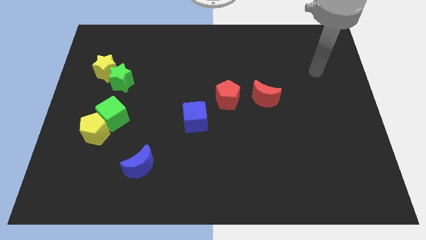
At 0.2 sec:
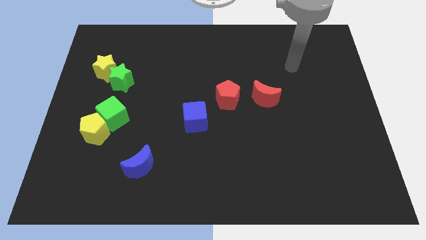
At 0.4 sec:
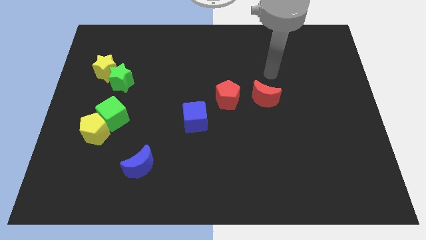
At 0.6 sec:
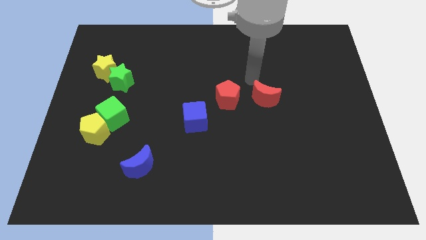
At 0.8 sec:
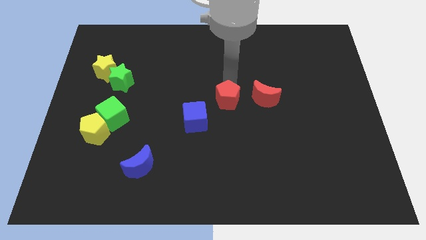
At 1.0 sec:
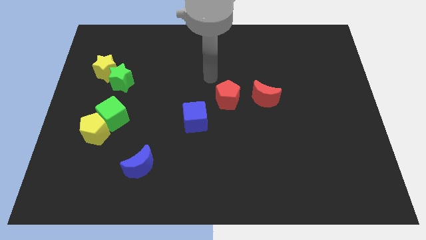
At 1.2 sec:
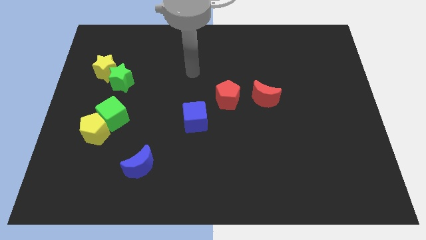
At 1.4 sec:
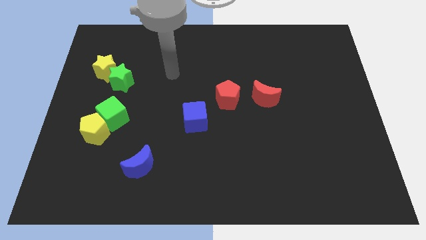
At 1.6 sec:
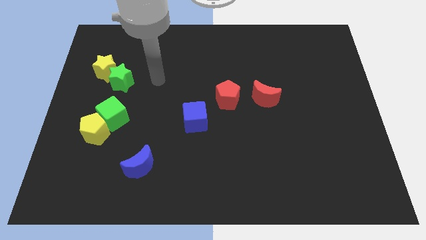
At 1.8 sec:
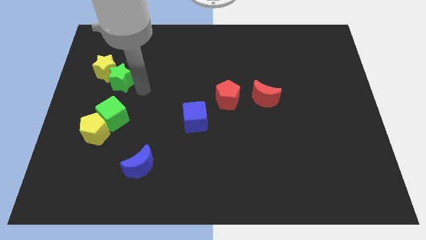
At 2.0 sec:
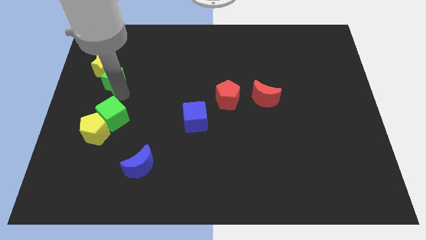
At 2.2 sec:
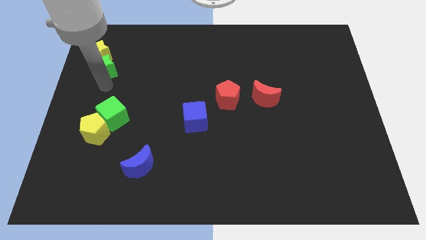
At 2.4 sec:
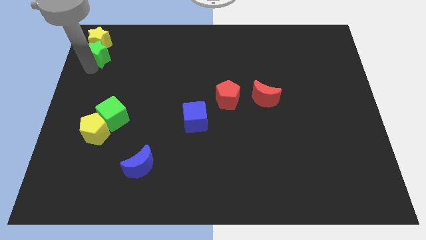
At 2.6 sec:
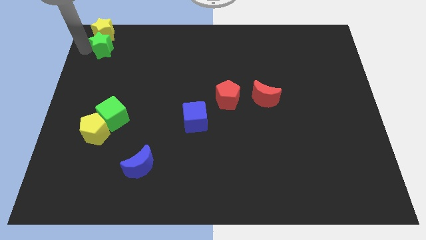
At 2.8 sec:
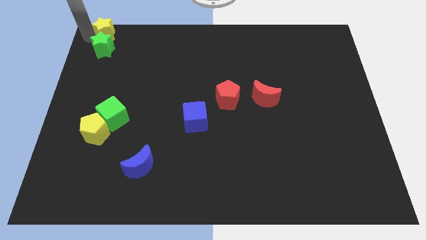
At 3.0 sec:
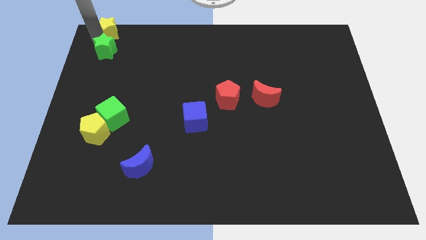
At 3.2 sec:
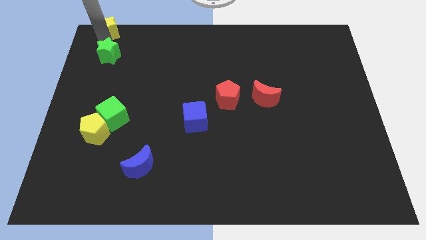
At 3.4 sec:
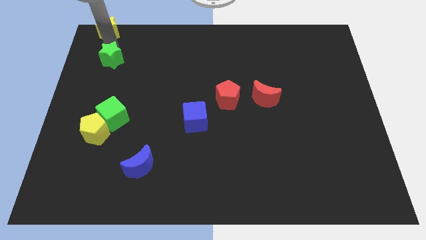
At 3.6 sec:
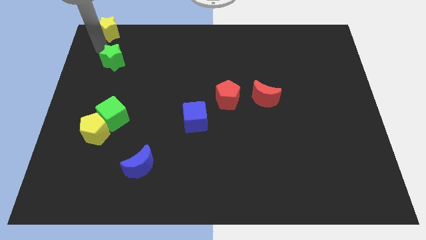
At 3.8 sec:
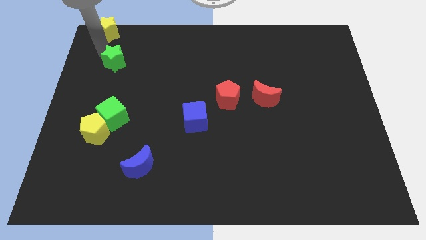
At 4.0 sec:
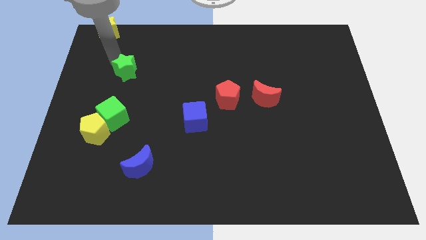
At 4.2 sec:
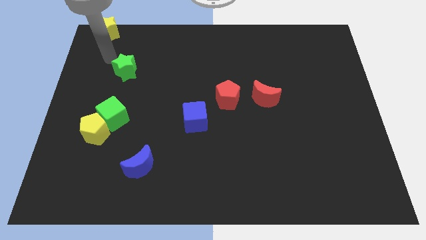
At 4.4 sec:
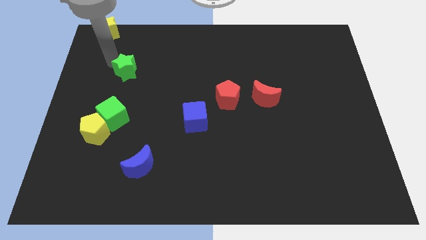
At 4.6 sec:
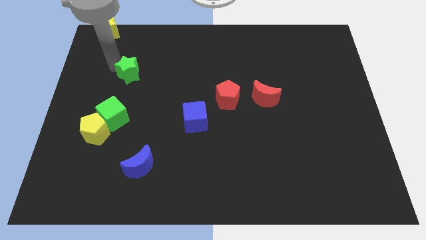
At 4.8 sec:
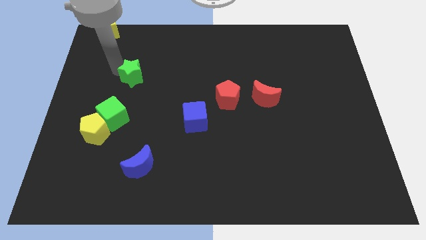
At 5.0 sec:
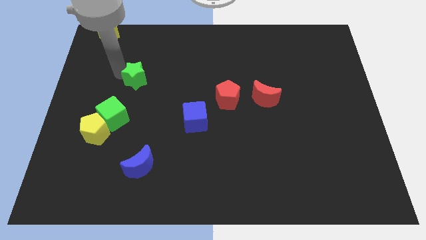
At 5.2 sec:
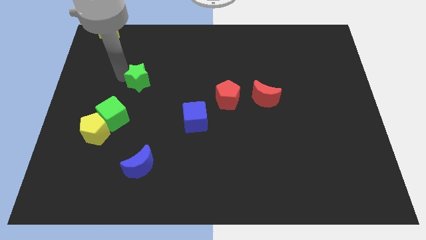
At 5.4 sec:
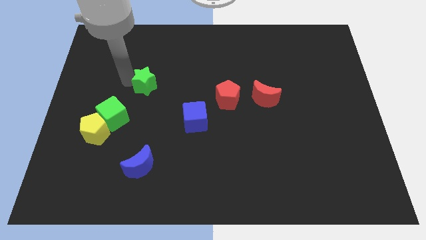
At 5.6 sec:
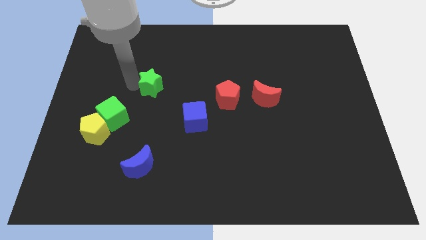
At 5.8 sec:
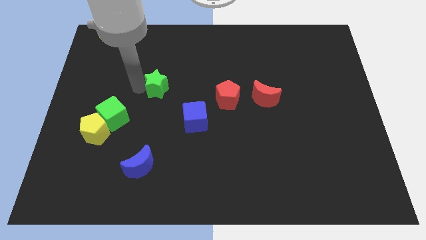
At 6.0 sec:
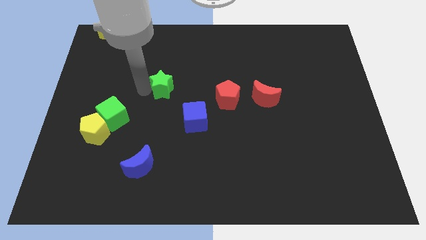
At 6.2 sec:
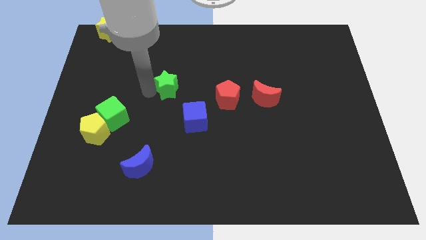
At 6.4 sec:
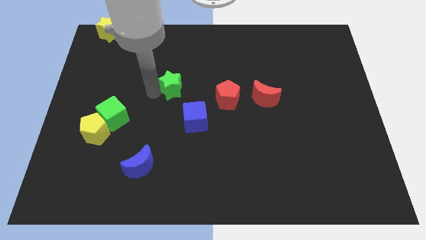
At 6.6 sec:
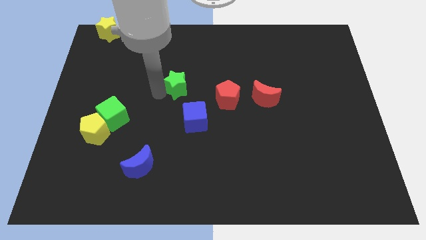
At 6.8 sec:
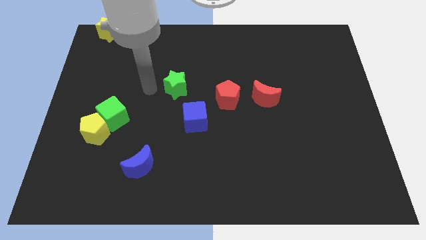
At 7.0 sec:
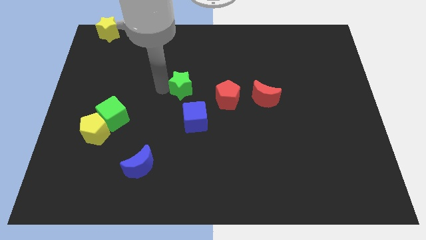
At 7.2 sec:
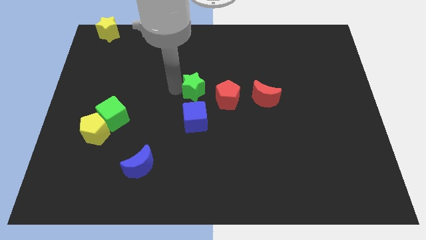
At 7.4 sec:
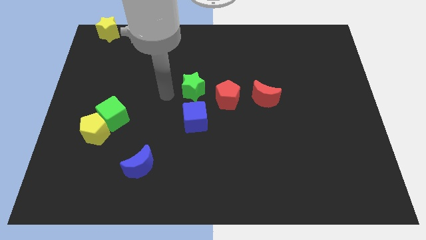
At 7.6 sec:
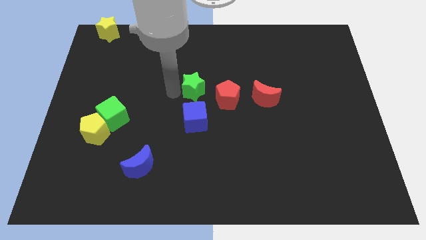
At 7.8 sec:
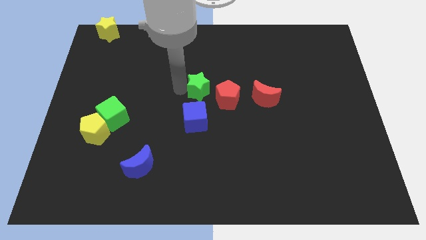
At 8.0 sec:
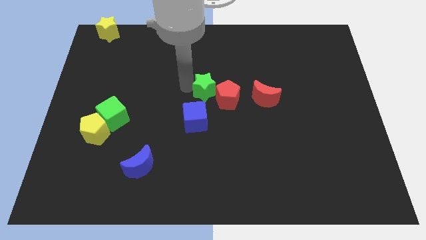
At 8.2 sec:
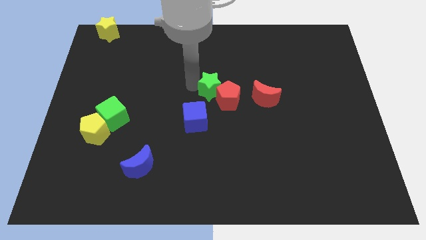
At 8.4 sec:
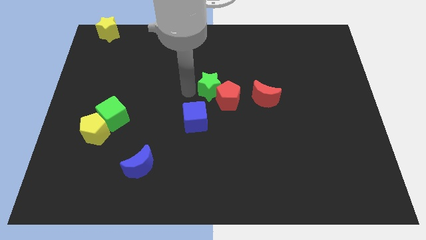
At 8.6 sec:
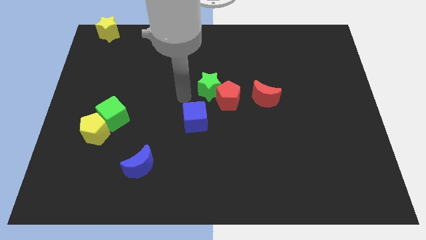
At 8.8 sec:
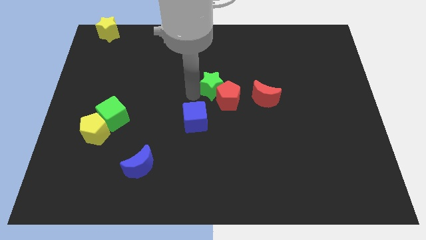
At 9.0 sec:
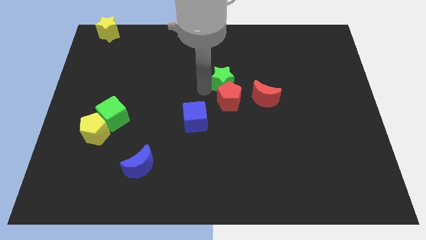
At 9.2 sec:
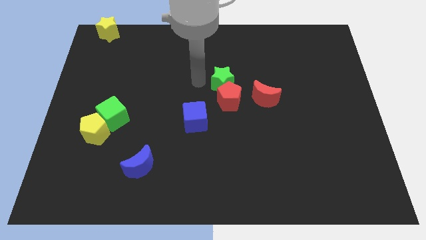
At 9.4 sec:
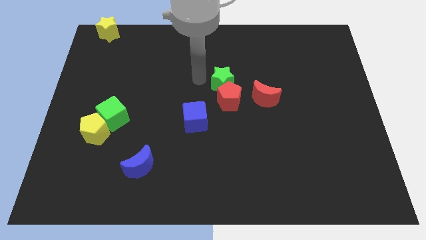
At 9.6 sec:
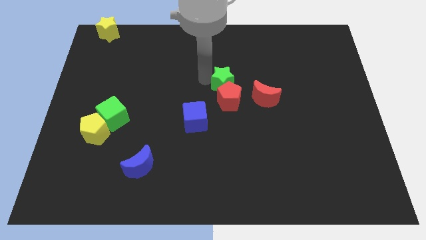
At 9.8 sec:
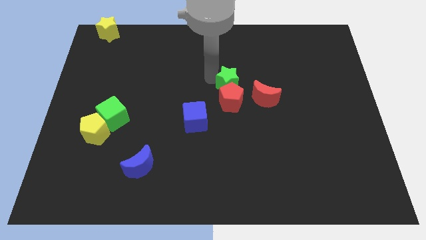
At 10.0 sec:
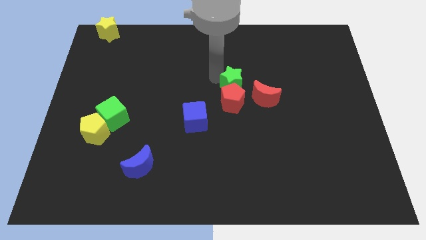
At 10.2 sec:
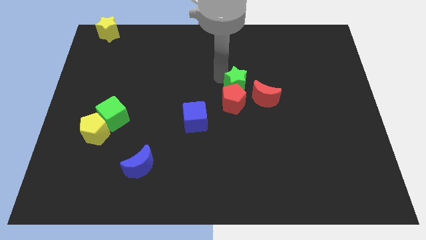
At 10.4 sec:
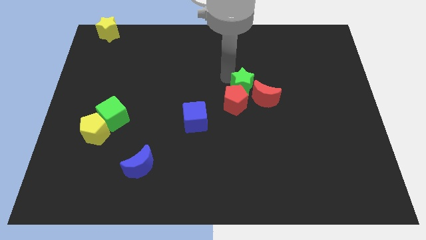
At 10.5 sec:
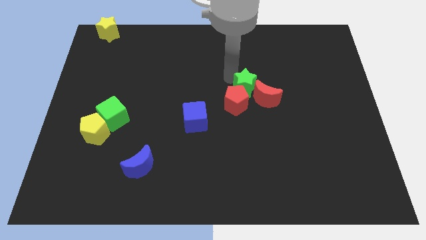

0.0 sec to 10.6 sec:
put the green star next to the red moon

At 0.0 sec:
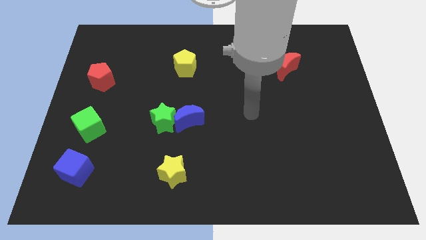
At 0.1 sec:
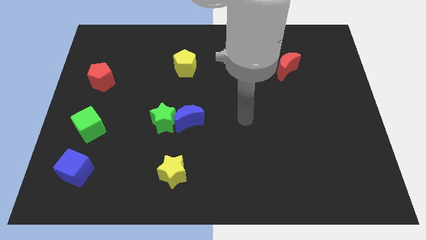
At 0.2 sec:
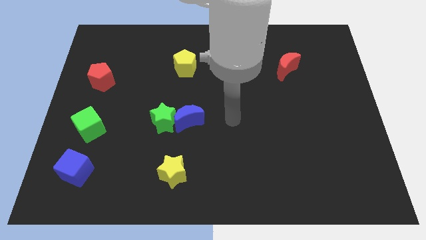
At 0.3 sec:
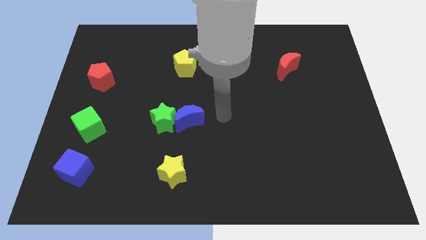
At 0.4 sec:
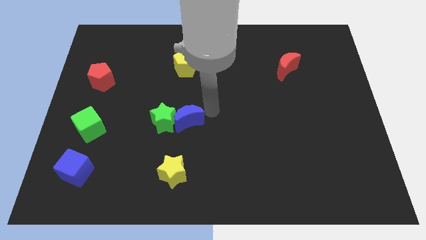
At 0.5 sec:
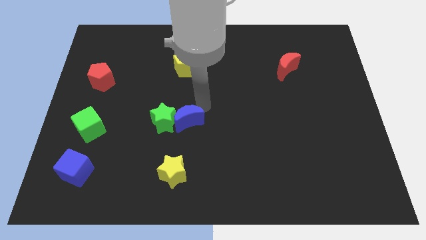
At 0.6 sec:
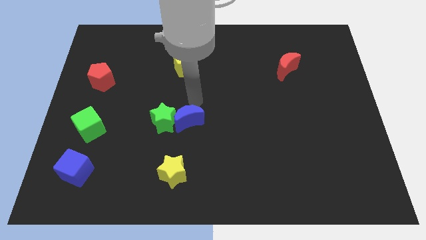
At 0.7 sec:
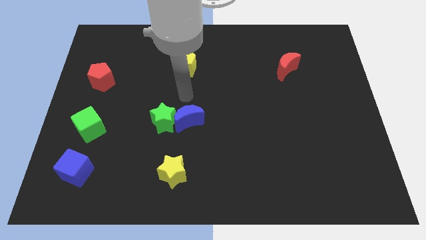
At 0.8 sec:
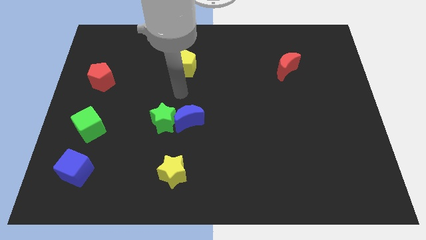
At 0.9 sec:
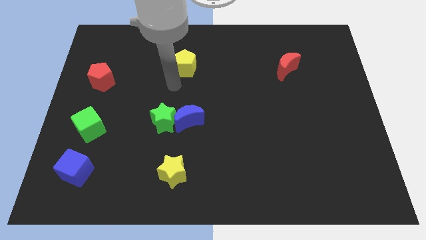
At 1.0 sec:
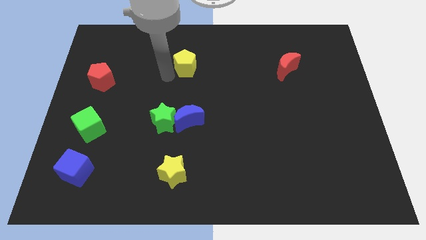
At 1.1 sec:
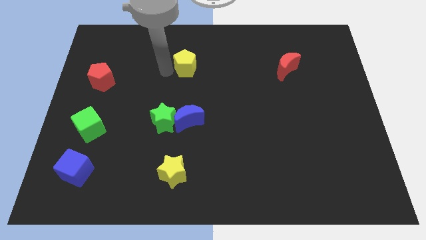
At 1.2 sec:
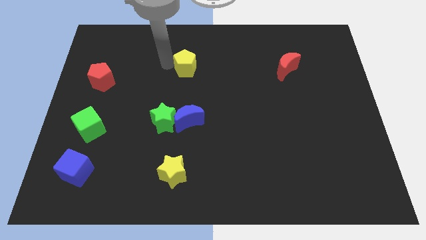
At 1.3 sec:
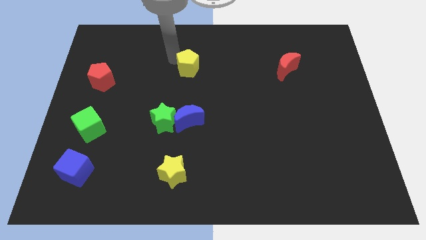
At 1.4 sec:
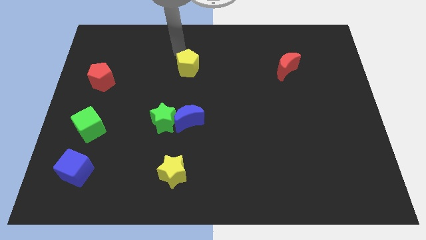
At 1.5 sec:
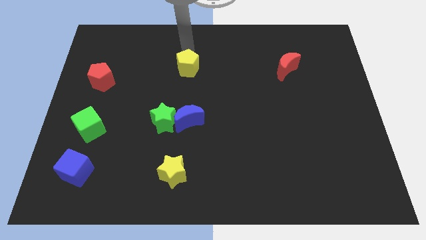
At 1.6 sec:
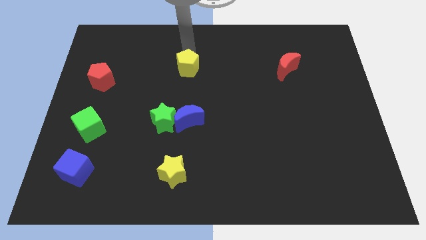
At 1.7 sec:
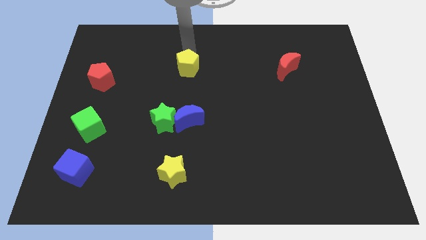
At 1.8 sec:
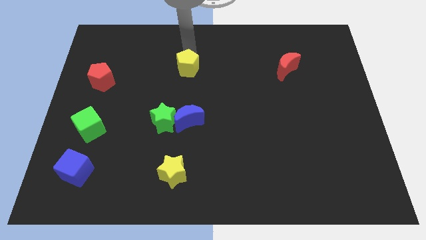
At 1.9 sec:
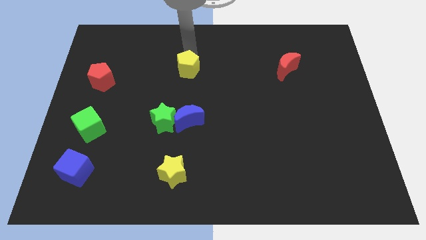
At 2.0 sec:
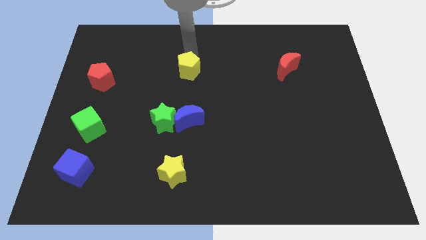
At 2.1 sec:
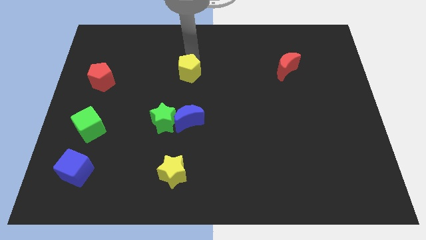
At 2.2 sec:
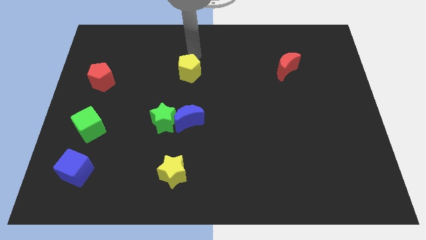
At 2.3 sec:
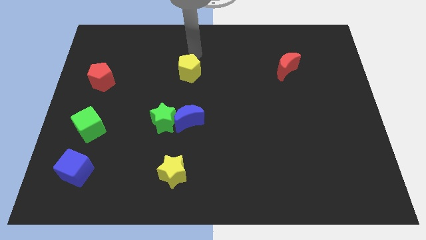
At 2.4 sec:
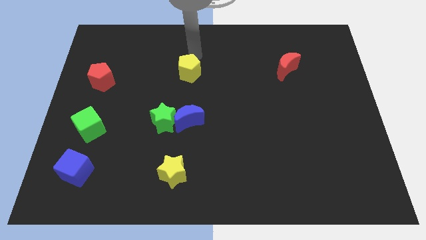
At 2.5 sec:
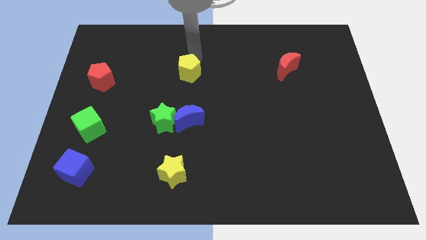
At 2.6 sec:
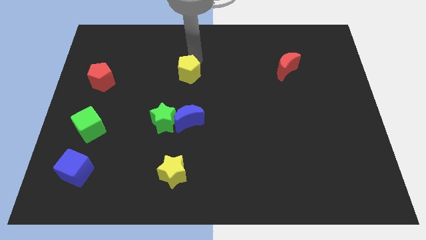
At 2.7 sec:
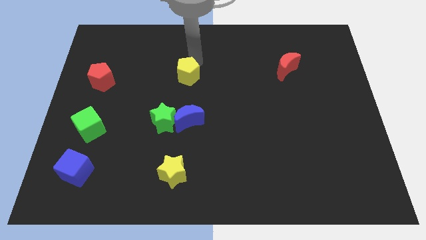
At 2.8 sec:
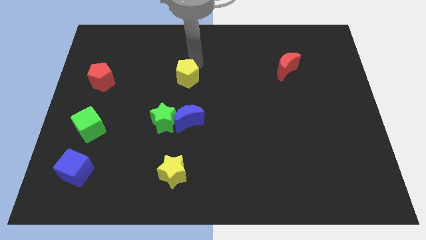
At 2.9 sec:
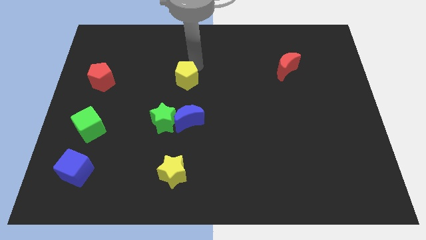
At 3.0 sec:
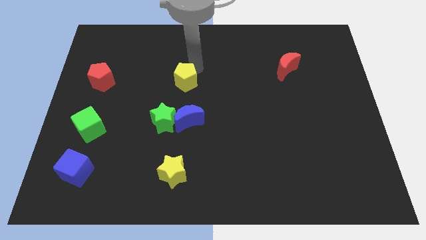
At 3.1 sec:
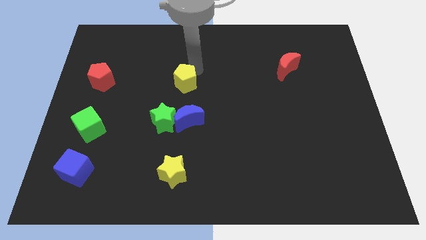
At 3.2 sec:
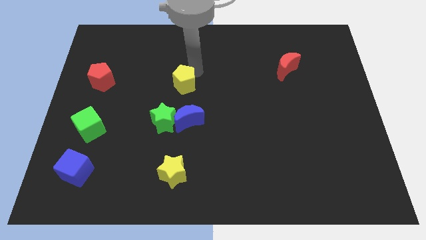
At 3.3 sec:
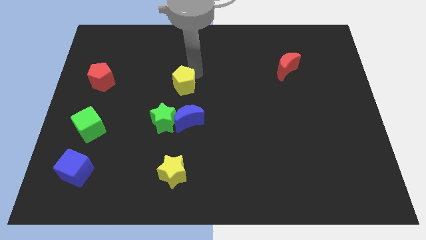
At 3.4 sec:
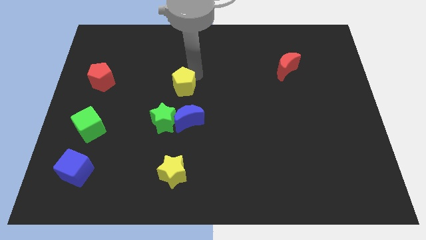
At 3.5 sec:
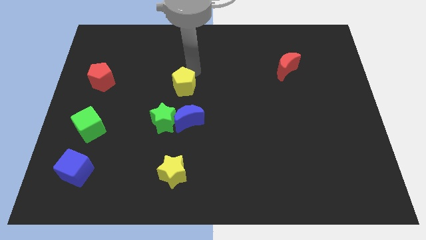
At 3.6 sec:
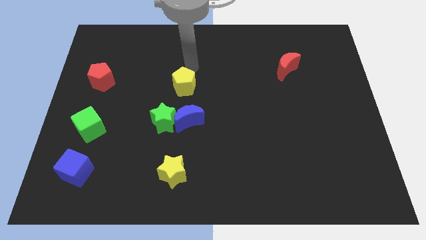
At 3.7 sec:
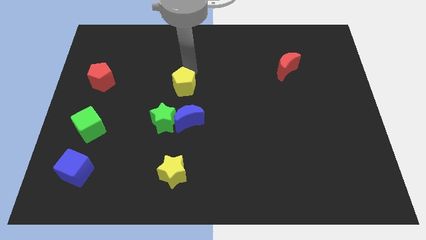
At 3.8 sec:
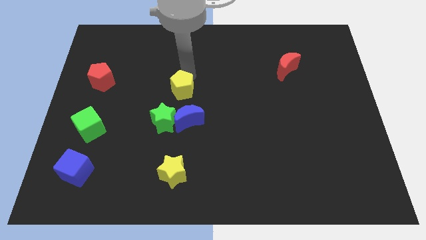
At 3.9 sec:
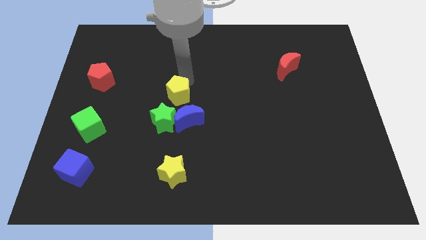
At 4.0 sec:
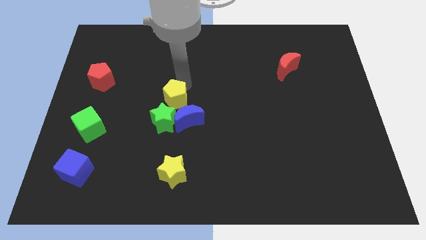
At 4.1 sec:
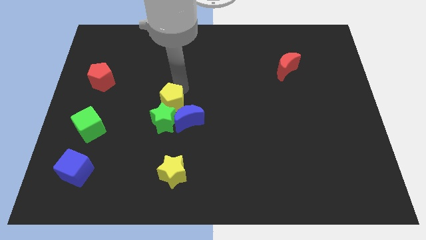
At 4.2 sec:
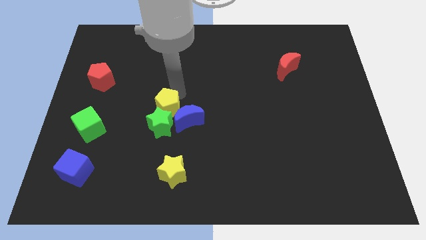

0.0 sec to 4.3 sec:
move the yellow pentagon close to the green star
